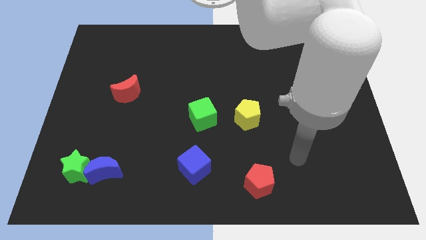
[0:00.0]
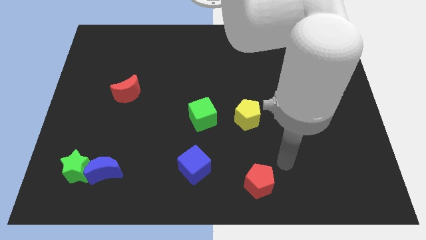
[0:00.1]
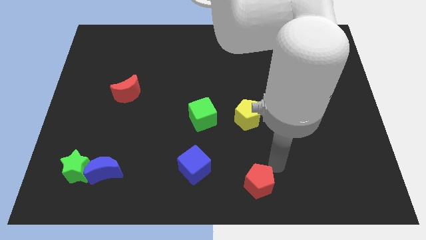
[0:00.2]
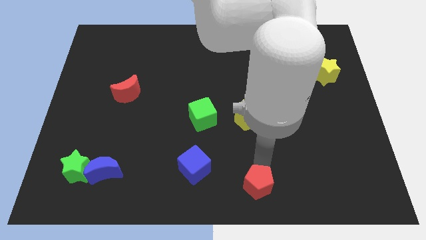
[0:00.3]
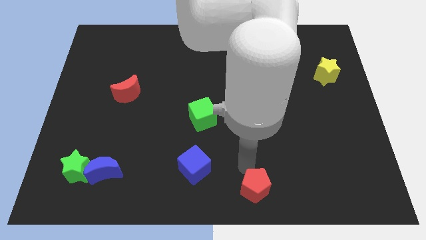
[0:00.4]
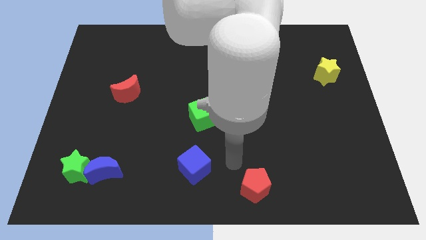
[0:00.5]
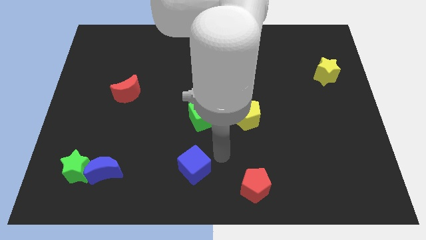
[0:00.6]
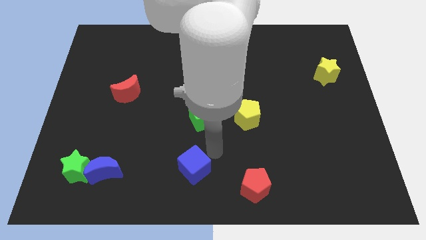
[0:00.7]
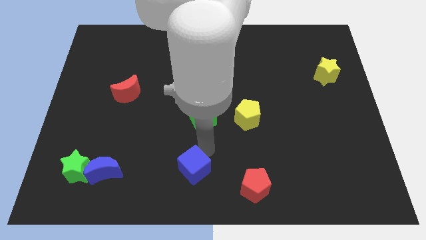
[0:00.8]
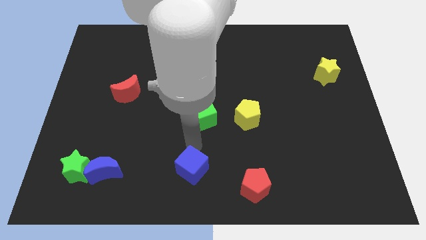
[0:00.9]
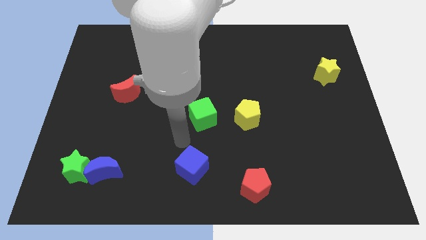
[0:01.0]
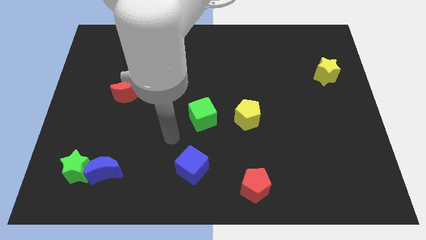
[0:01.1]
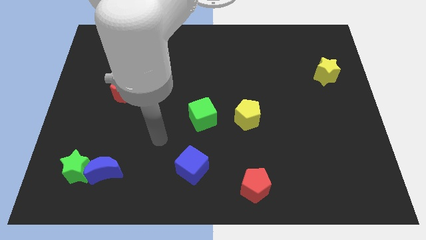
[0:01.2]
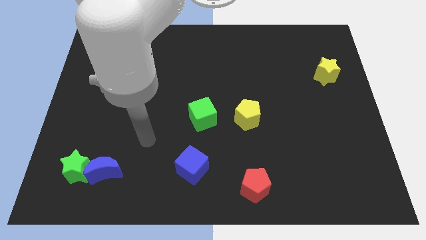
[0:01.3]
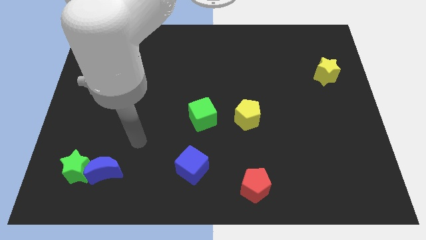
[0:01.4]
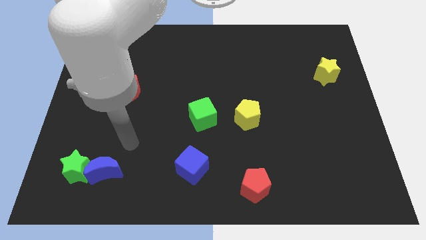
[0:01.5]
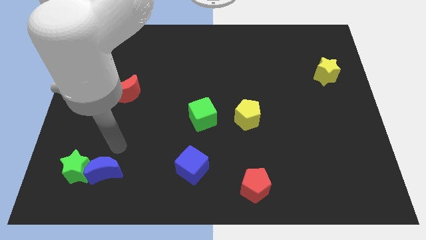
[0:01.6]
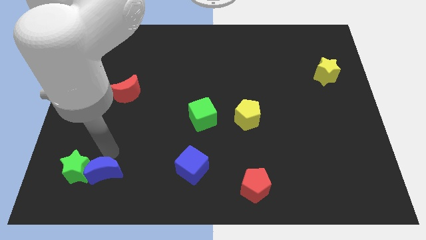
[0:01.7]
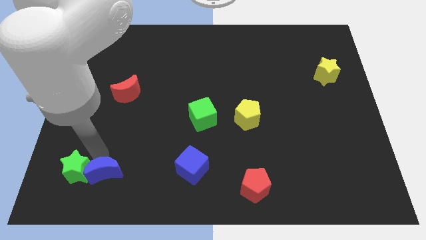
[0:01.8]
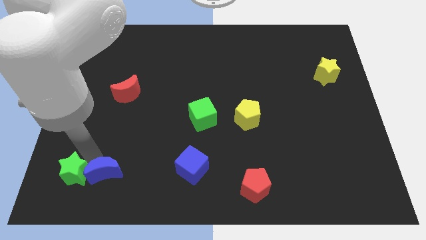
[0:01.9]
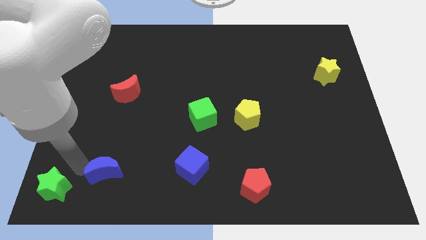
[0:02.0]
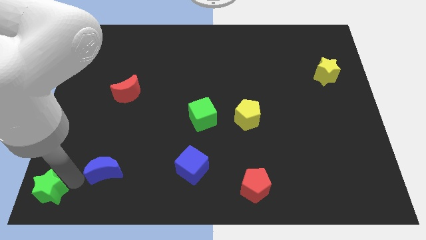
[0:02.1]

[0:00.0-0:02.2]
move the blue moon away from the green star

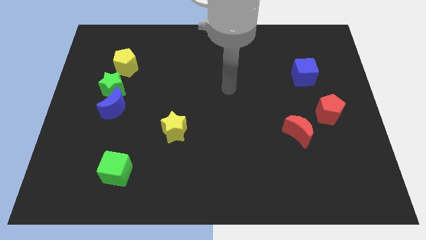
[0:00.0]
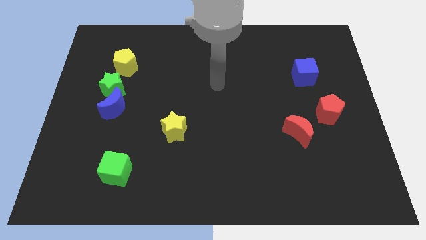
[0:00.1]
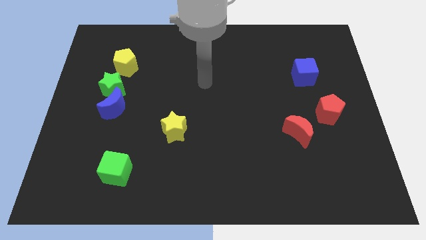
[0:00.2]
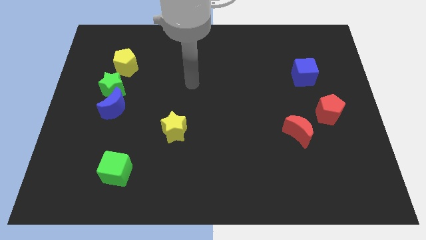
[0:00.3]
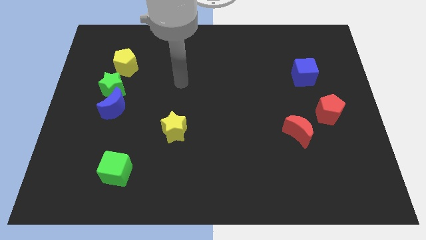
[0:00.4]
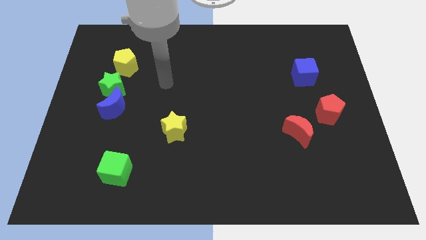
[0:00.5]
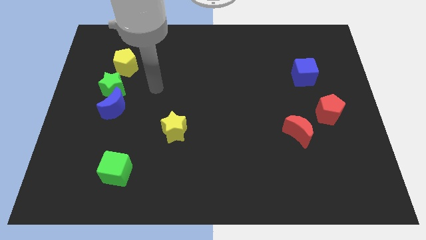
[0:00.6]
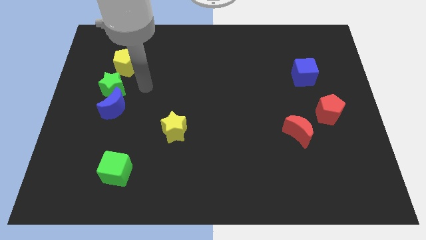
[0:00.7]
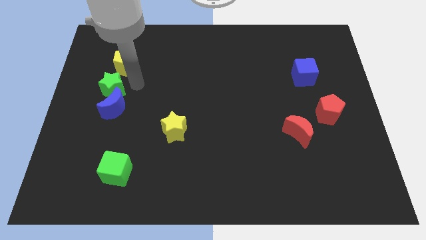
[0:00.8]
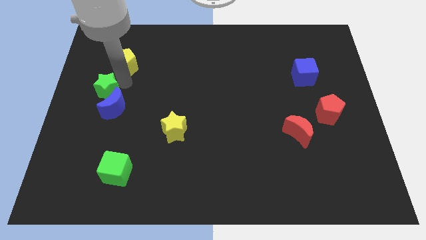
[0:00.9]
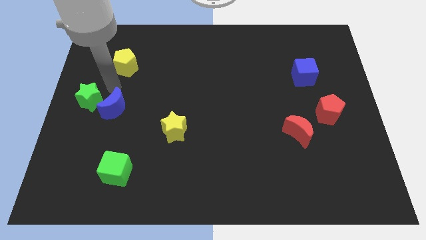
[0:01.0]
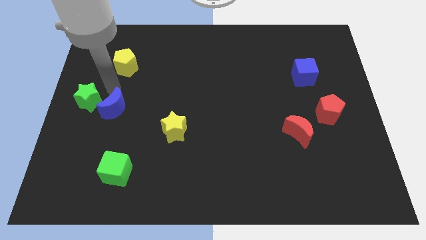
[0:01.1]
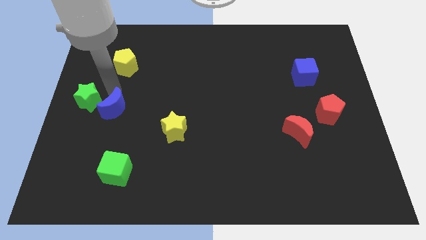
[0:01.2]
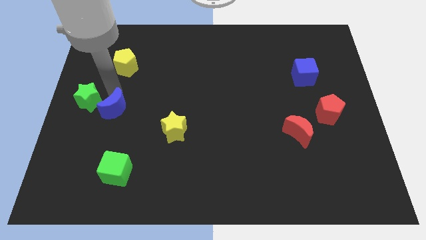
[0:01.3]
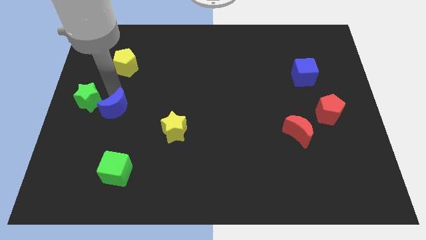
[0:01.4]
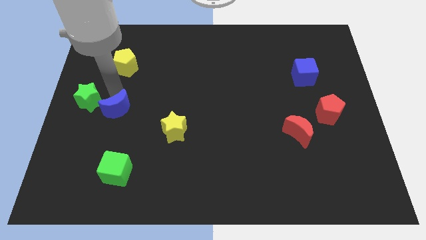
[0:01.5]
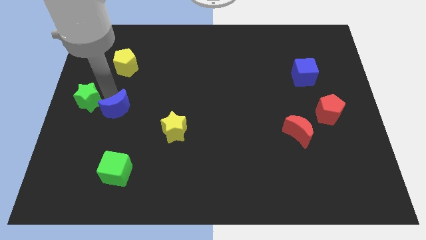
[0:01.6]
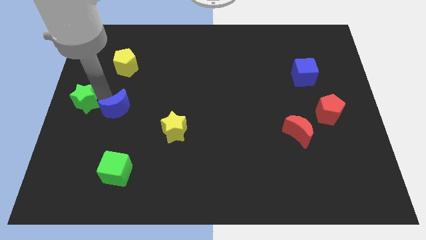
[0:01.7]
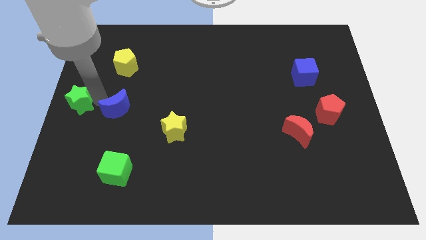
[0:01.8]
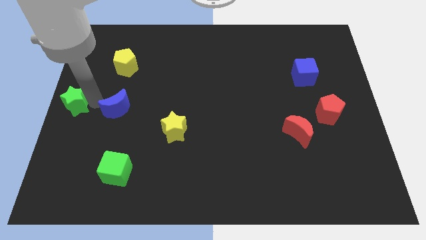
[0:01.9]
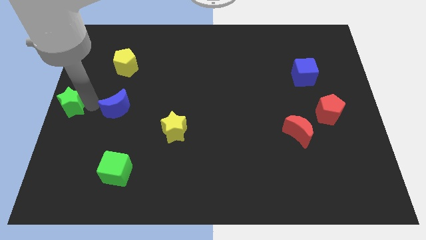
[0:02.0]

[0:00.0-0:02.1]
separate the blue moon from the green star

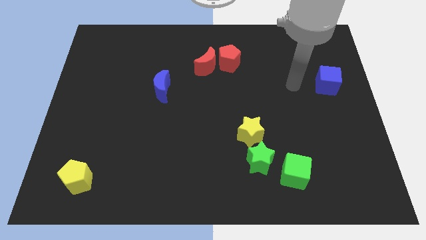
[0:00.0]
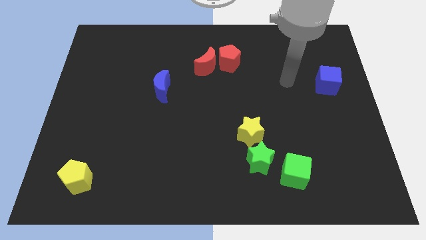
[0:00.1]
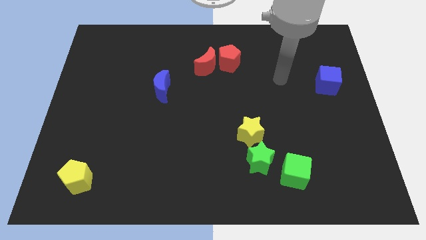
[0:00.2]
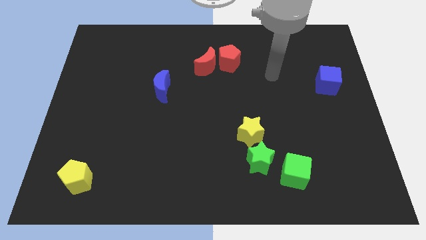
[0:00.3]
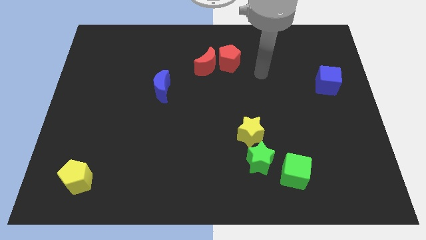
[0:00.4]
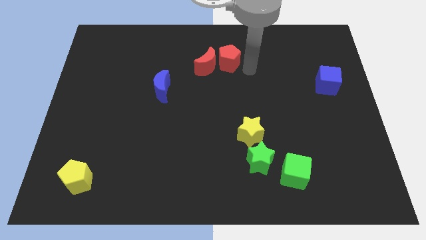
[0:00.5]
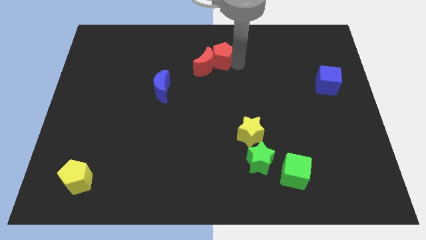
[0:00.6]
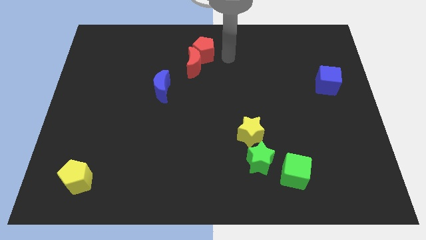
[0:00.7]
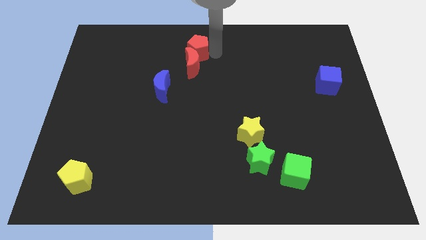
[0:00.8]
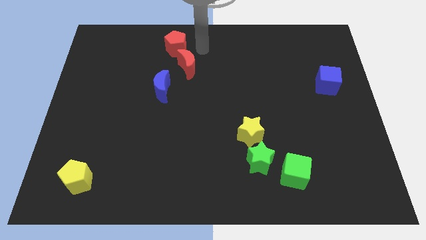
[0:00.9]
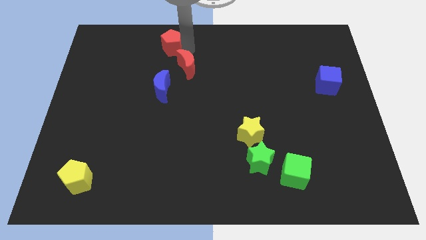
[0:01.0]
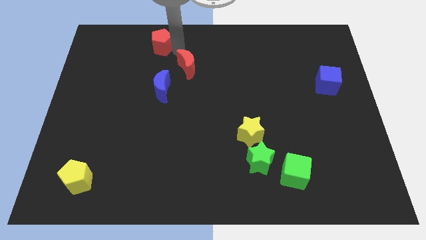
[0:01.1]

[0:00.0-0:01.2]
separate the red moon from the red pentagon

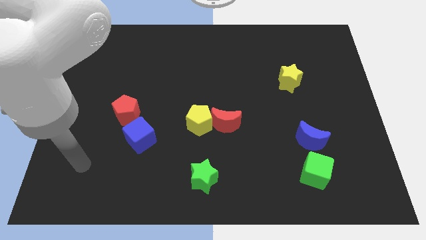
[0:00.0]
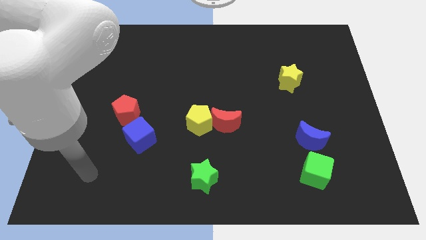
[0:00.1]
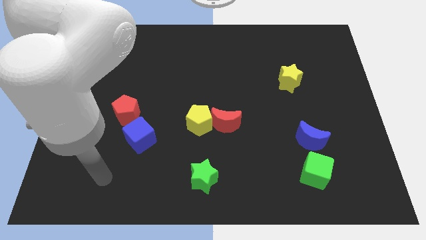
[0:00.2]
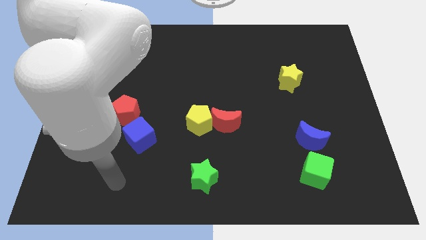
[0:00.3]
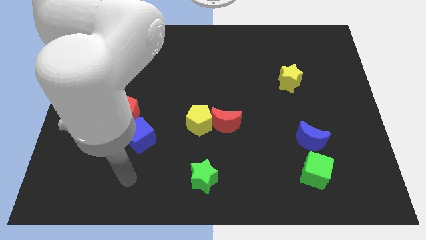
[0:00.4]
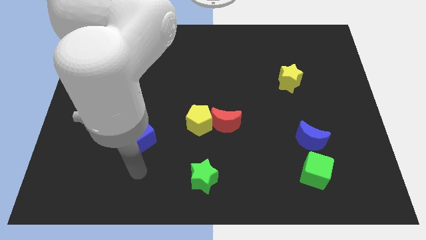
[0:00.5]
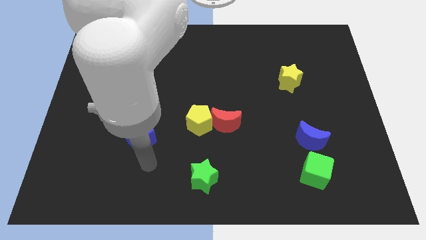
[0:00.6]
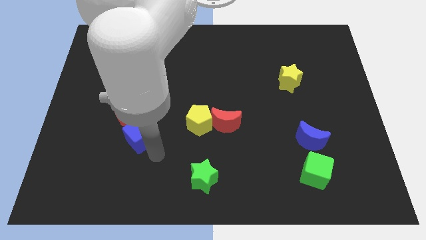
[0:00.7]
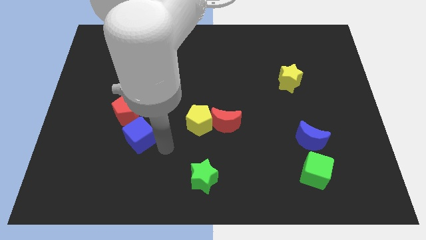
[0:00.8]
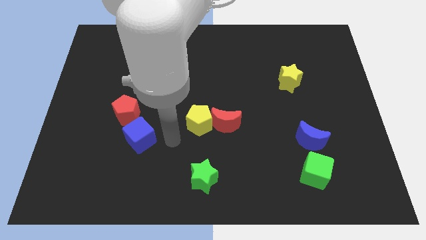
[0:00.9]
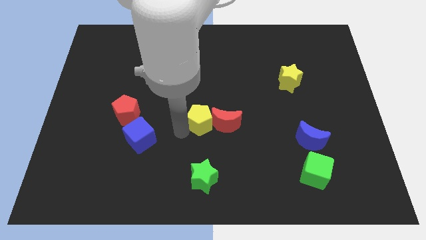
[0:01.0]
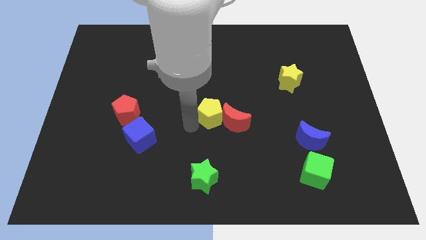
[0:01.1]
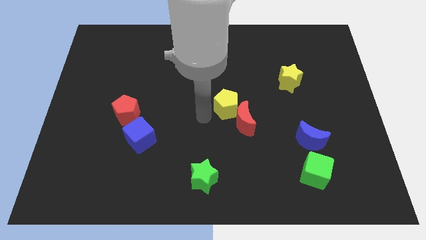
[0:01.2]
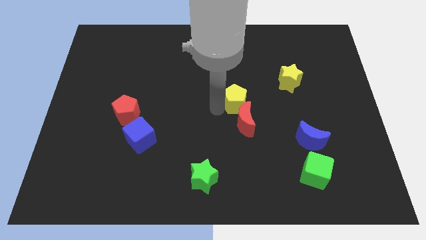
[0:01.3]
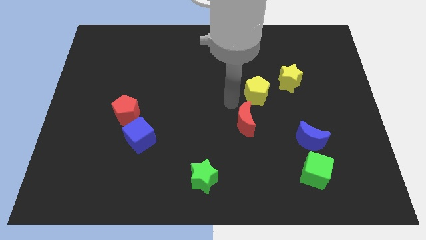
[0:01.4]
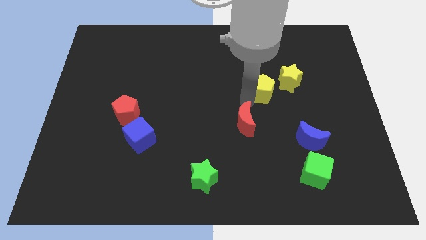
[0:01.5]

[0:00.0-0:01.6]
separate the red moon from the yellow pentagon

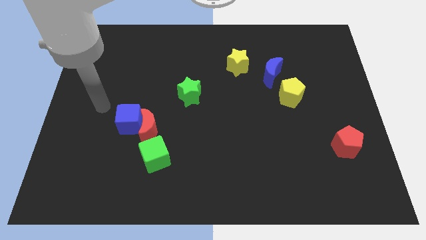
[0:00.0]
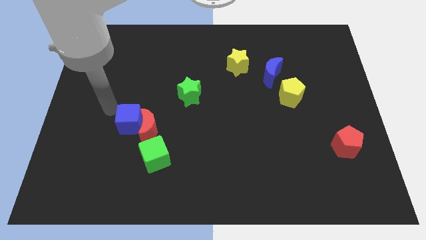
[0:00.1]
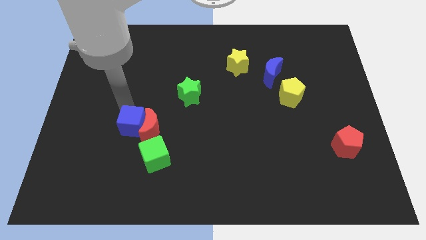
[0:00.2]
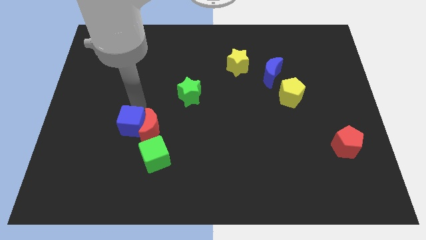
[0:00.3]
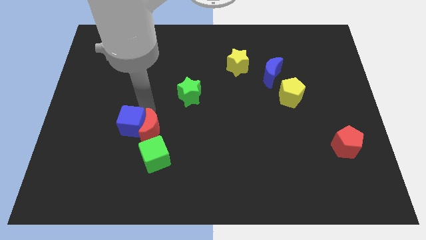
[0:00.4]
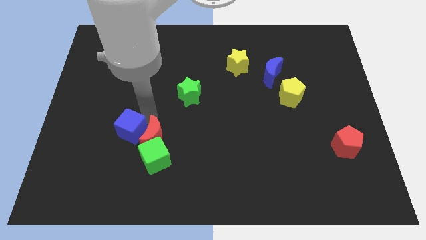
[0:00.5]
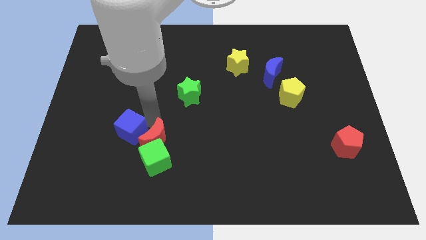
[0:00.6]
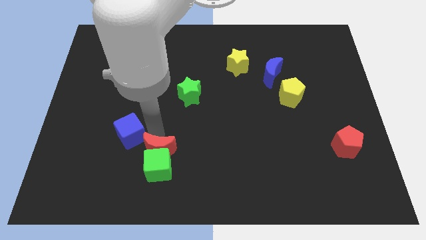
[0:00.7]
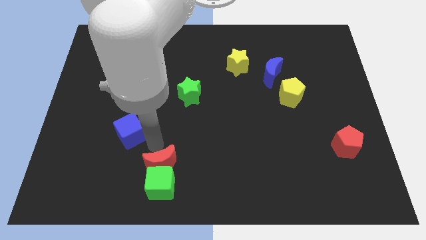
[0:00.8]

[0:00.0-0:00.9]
separate the blue cube from the red moon

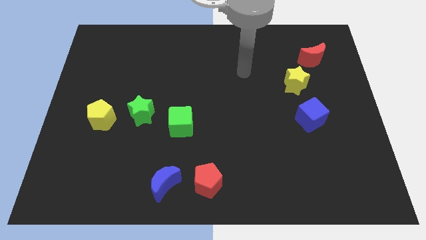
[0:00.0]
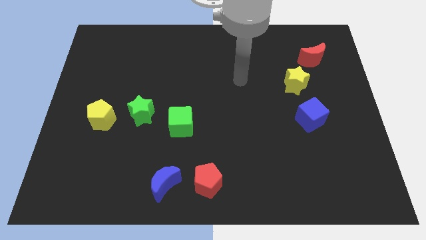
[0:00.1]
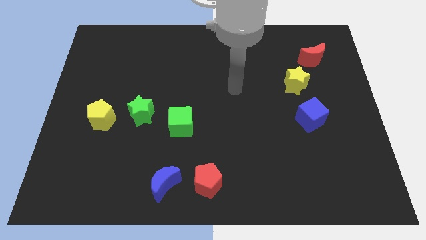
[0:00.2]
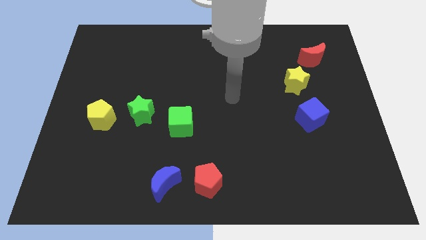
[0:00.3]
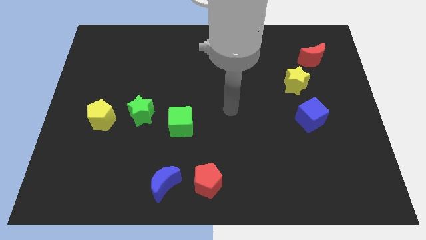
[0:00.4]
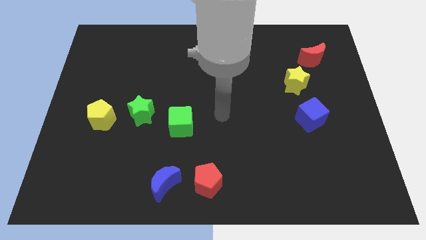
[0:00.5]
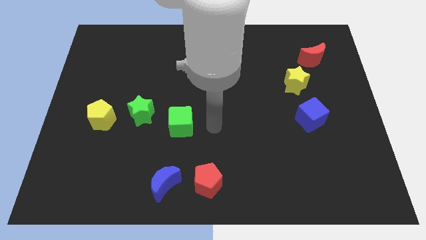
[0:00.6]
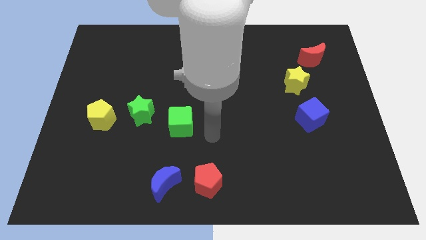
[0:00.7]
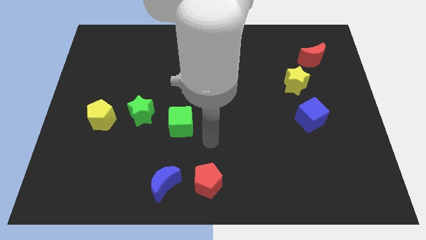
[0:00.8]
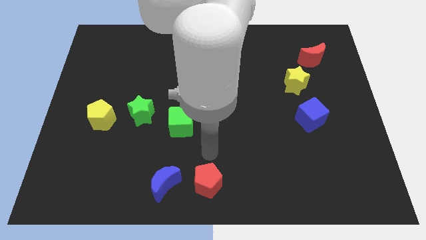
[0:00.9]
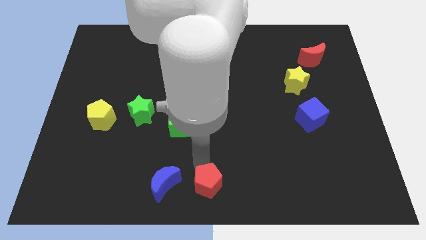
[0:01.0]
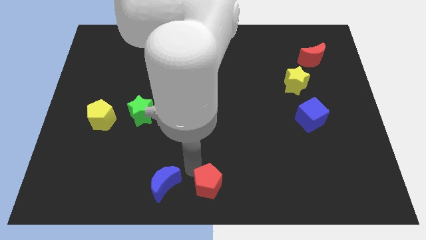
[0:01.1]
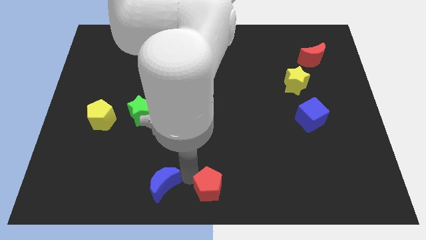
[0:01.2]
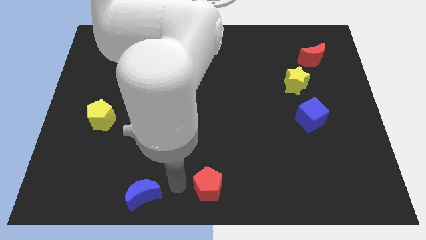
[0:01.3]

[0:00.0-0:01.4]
pull the red pentagon apart from the blue moon
